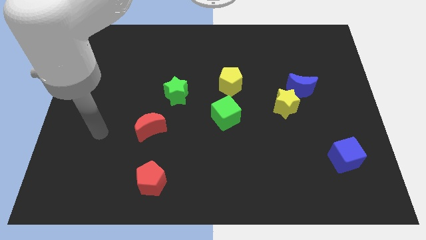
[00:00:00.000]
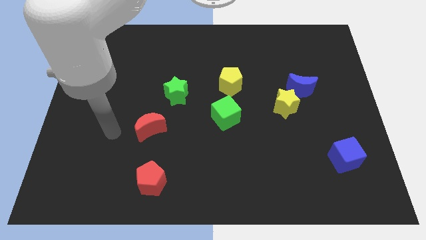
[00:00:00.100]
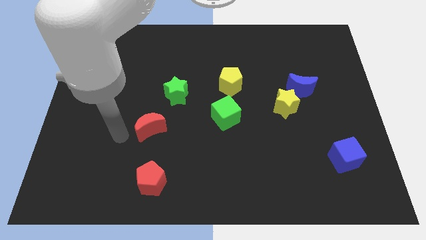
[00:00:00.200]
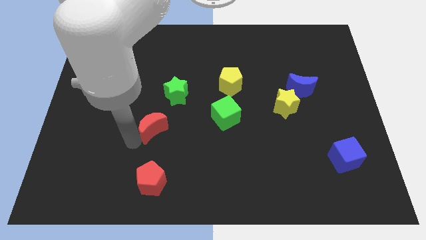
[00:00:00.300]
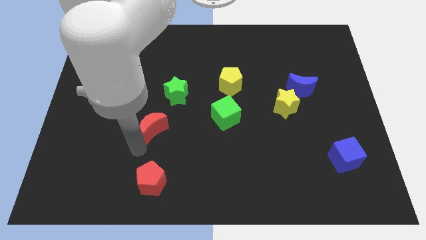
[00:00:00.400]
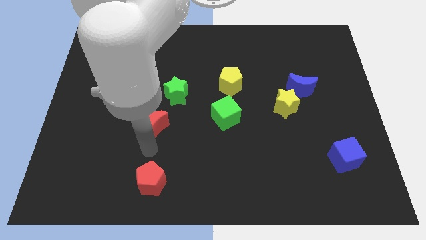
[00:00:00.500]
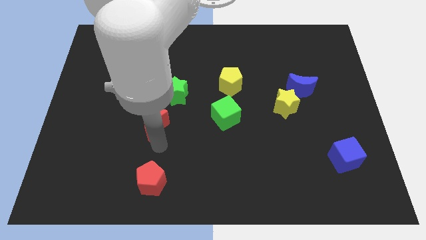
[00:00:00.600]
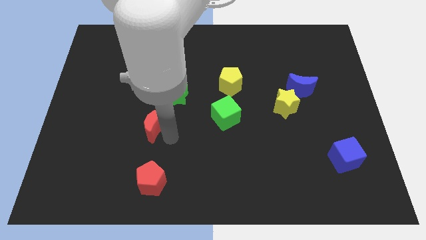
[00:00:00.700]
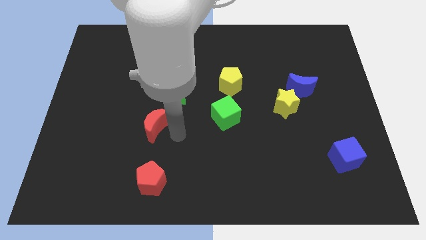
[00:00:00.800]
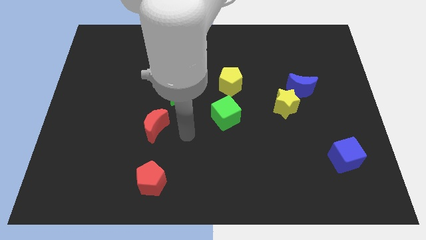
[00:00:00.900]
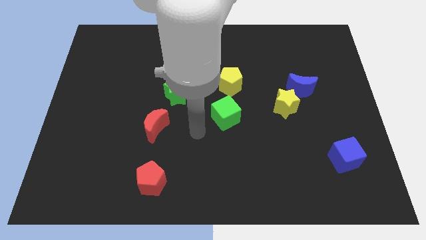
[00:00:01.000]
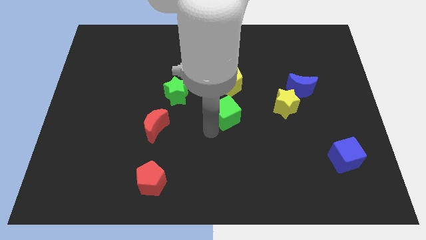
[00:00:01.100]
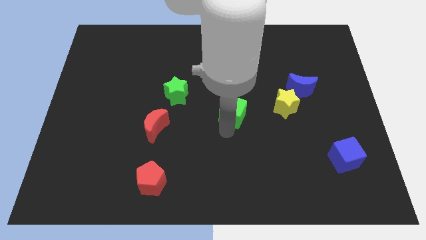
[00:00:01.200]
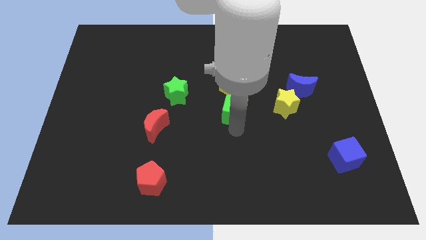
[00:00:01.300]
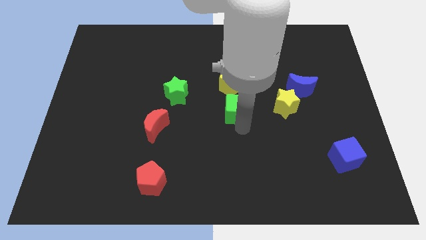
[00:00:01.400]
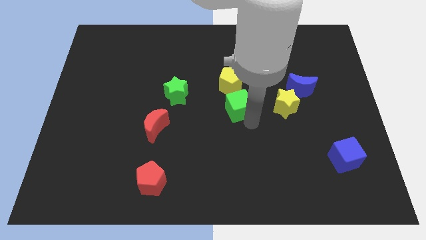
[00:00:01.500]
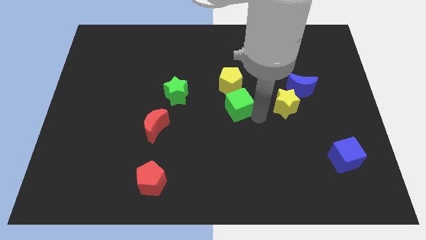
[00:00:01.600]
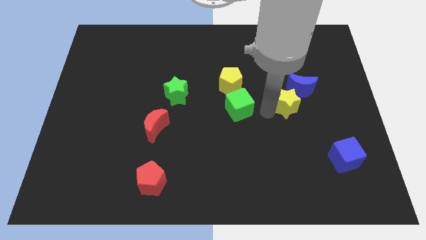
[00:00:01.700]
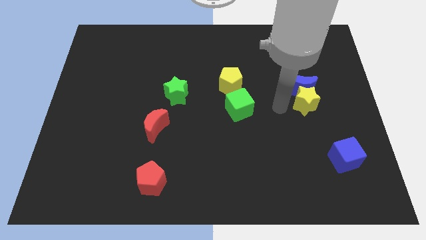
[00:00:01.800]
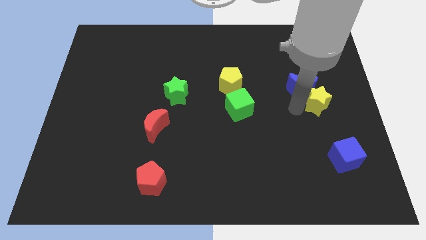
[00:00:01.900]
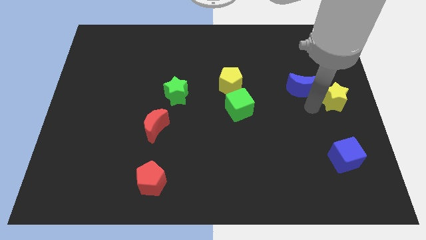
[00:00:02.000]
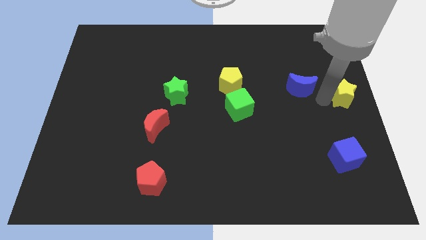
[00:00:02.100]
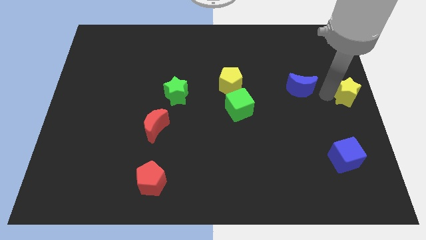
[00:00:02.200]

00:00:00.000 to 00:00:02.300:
pull the blue moon apart from the yellow star

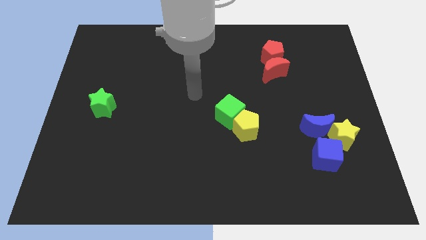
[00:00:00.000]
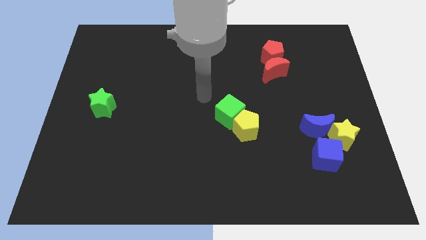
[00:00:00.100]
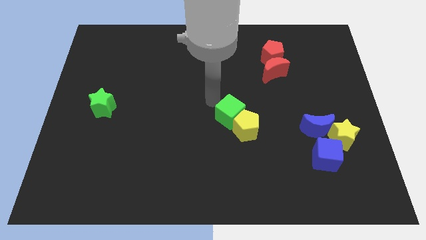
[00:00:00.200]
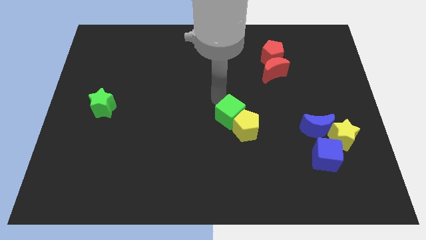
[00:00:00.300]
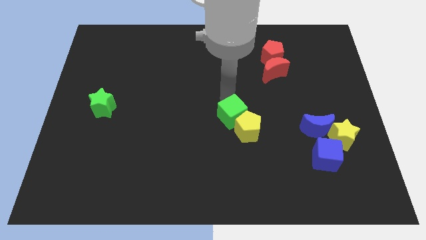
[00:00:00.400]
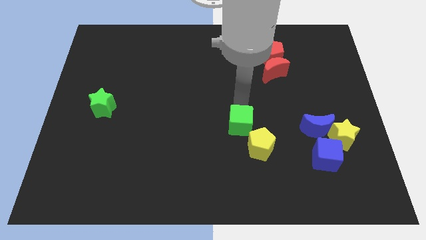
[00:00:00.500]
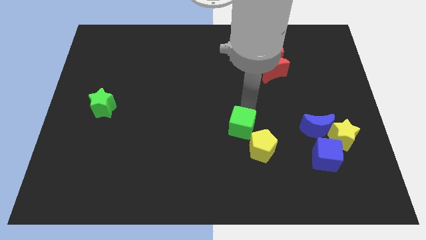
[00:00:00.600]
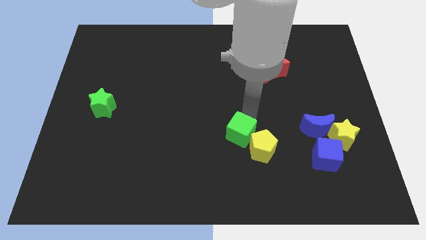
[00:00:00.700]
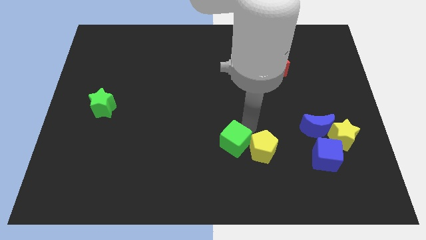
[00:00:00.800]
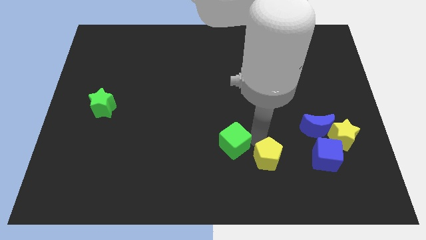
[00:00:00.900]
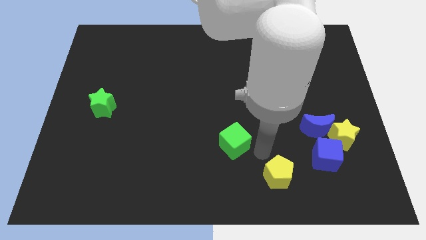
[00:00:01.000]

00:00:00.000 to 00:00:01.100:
move the green cube away from the yellow pentagon

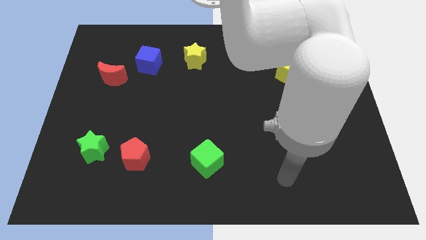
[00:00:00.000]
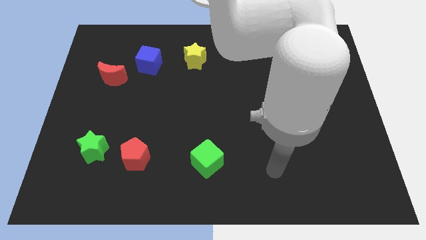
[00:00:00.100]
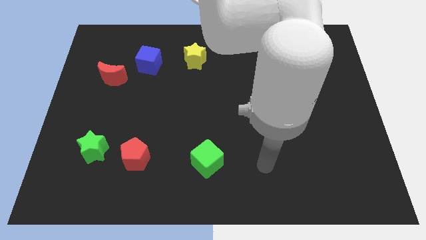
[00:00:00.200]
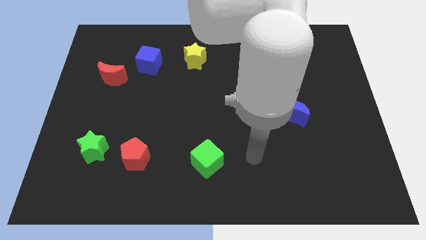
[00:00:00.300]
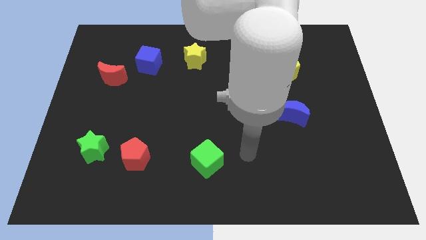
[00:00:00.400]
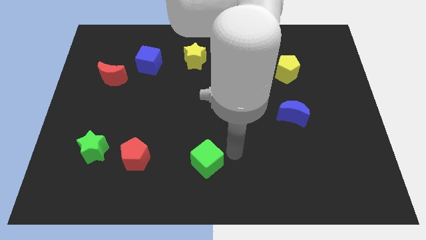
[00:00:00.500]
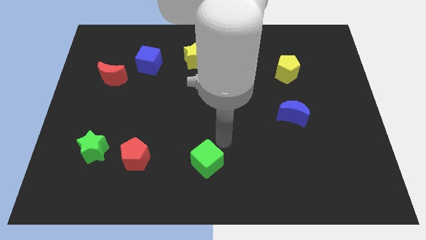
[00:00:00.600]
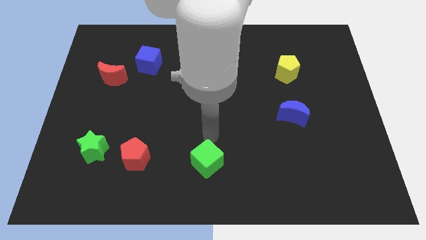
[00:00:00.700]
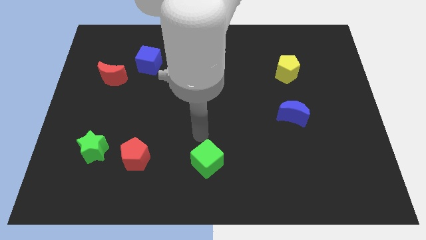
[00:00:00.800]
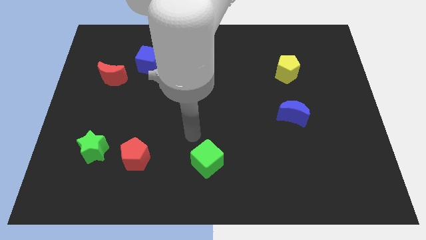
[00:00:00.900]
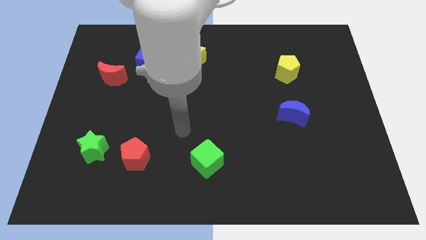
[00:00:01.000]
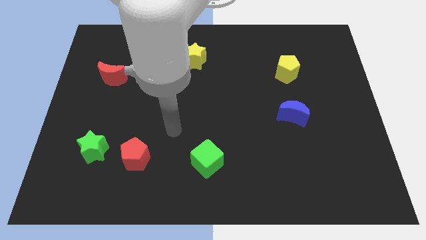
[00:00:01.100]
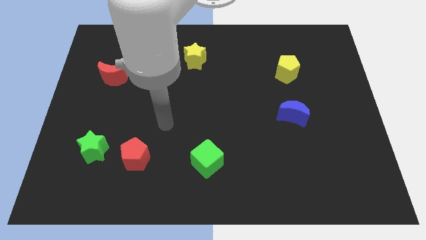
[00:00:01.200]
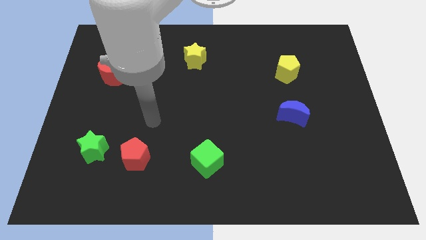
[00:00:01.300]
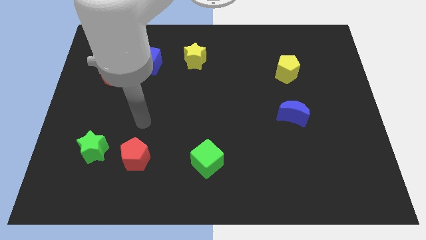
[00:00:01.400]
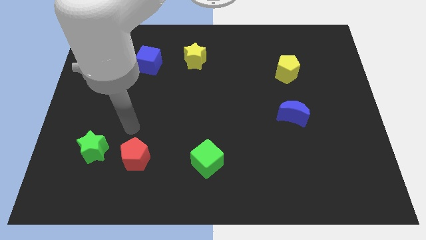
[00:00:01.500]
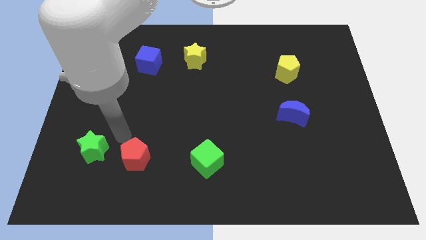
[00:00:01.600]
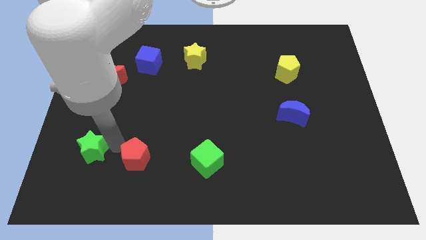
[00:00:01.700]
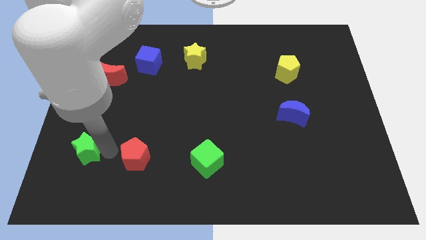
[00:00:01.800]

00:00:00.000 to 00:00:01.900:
pull the red pentagon apart from the green star

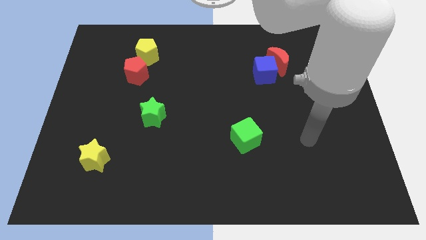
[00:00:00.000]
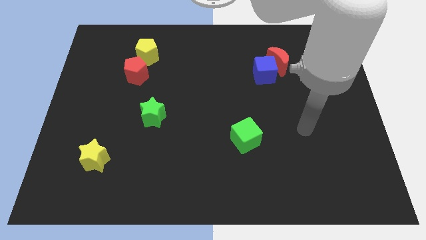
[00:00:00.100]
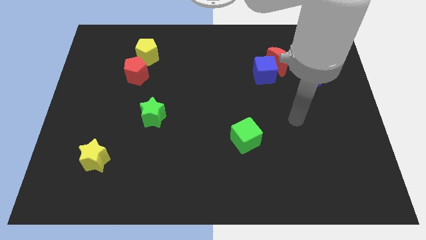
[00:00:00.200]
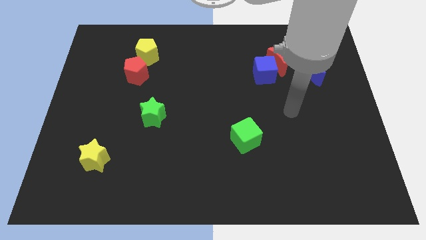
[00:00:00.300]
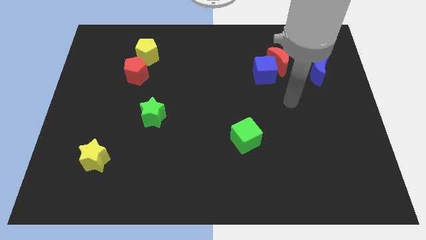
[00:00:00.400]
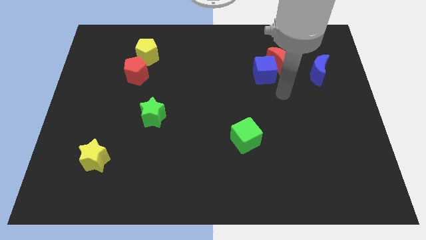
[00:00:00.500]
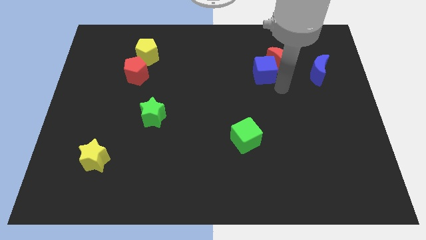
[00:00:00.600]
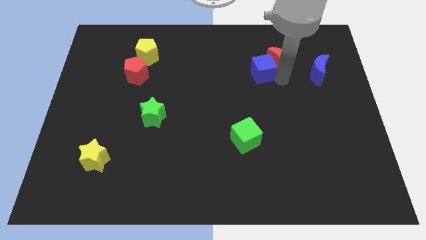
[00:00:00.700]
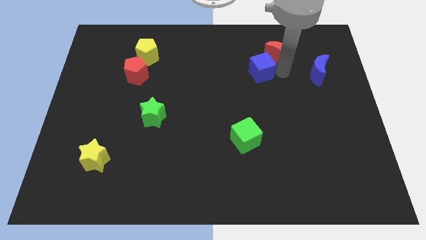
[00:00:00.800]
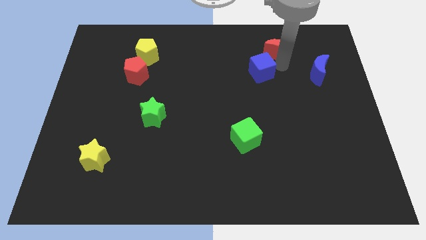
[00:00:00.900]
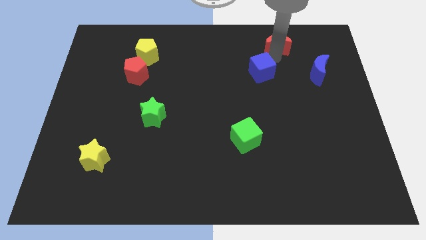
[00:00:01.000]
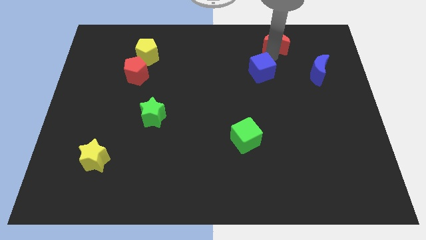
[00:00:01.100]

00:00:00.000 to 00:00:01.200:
move the blue cube away from the red moon

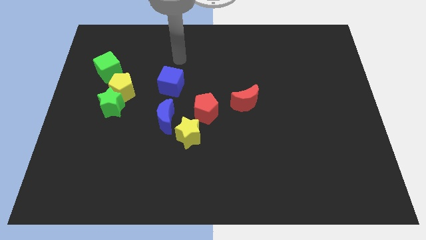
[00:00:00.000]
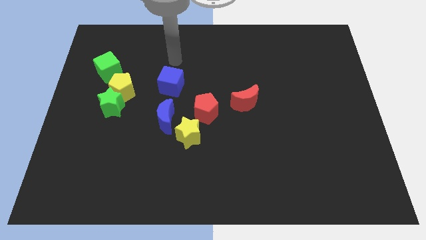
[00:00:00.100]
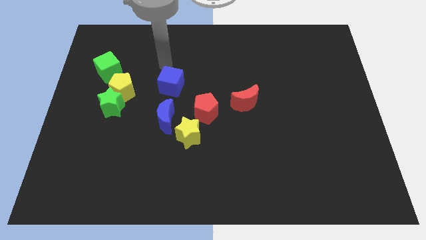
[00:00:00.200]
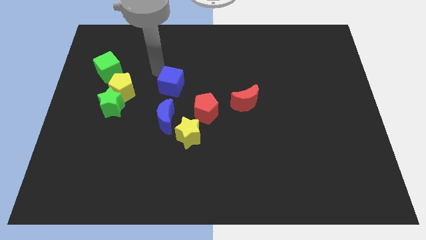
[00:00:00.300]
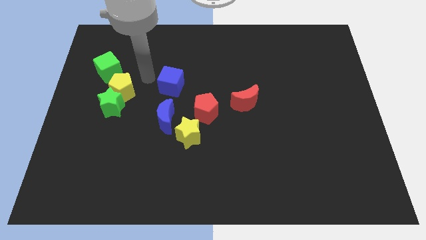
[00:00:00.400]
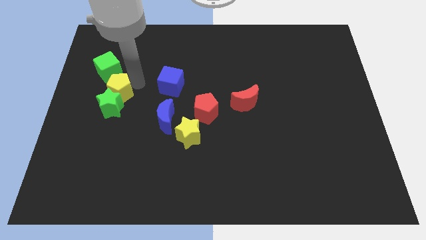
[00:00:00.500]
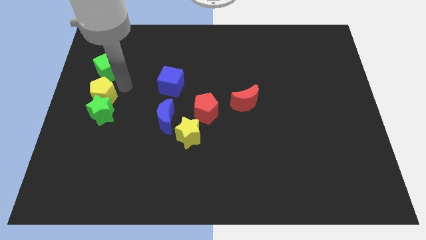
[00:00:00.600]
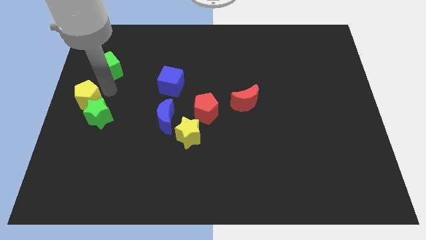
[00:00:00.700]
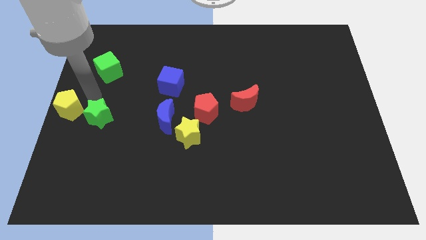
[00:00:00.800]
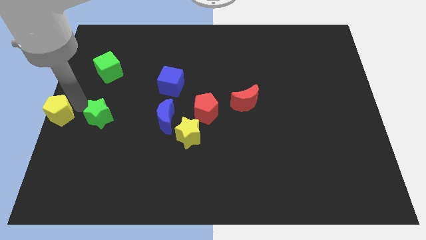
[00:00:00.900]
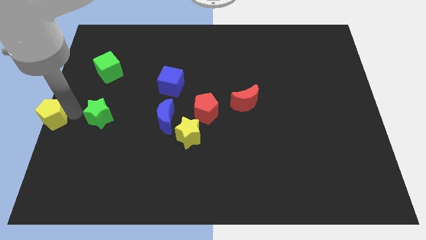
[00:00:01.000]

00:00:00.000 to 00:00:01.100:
move the green star away from the yellow pentagon

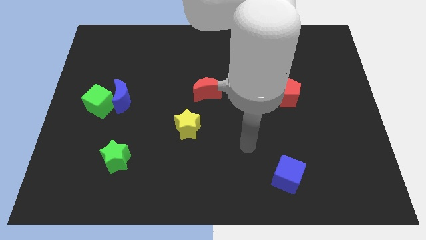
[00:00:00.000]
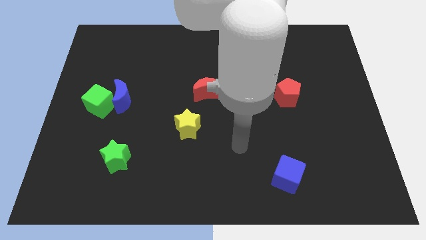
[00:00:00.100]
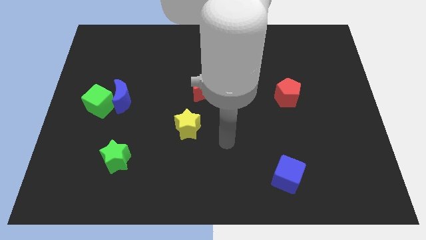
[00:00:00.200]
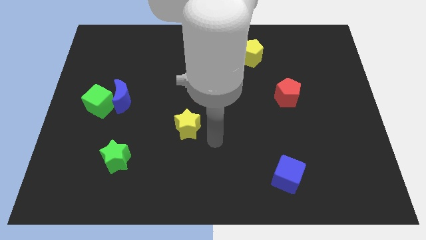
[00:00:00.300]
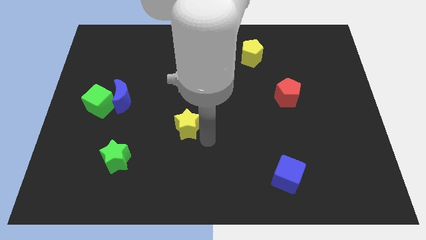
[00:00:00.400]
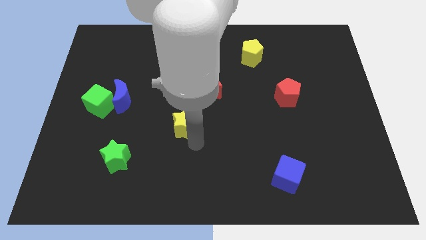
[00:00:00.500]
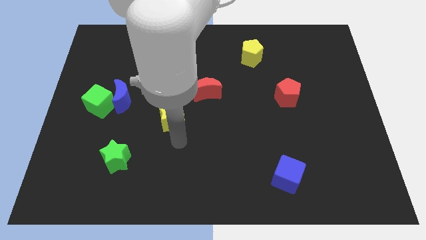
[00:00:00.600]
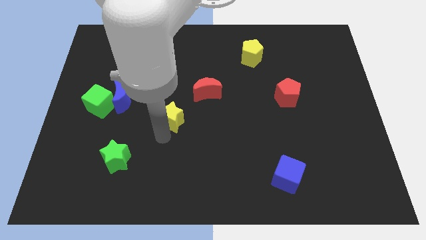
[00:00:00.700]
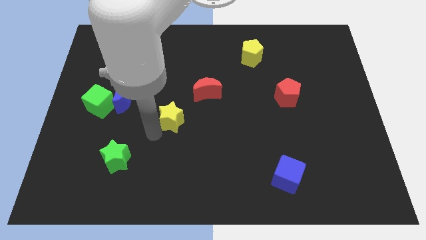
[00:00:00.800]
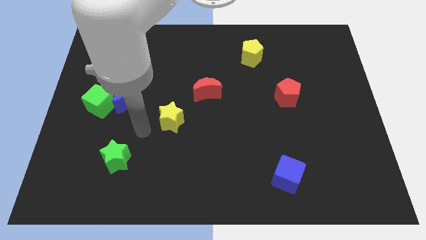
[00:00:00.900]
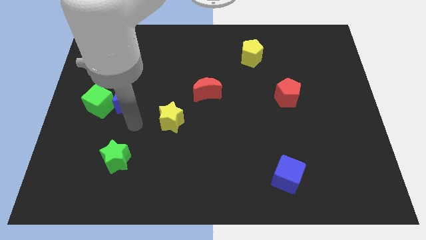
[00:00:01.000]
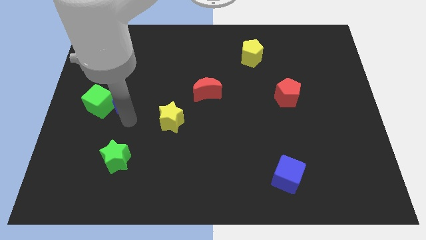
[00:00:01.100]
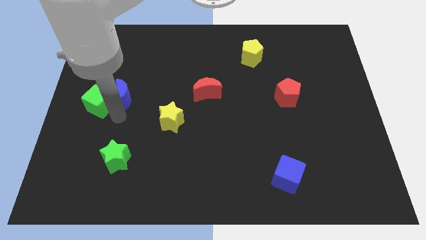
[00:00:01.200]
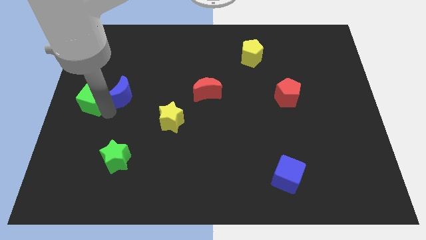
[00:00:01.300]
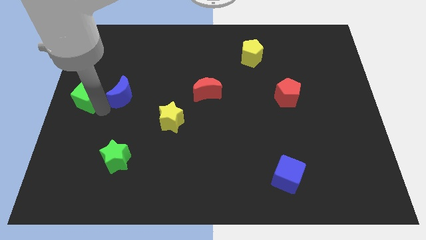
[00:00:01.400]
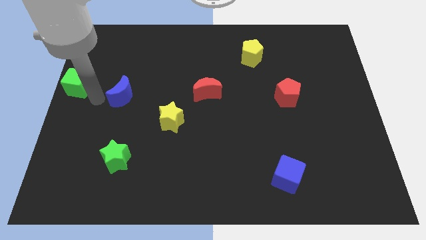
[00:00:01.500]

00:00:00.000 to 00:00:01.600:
separate the blue moon from the green cube
